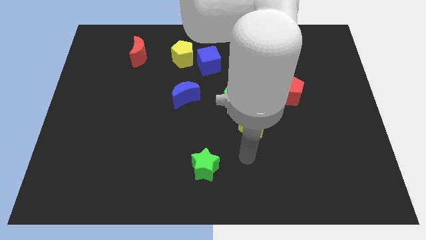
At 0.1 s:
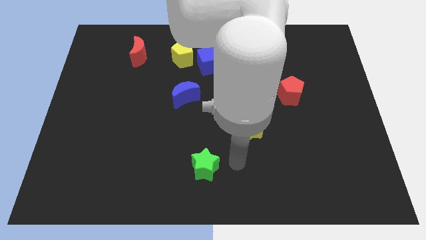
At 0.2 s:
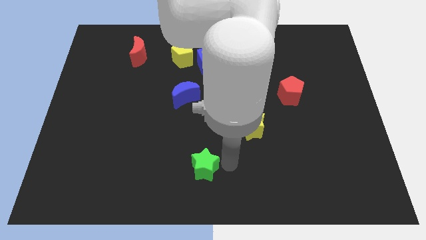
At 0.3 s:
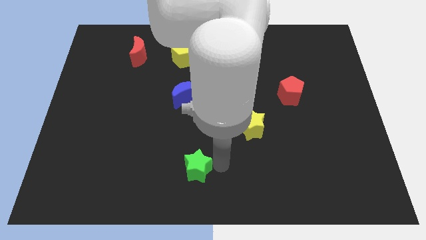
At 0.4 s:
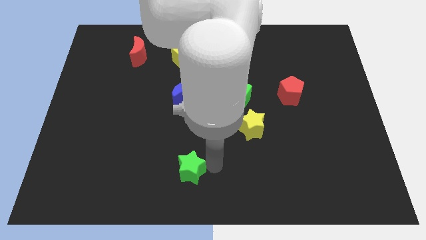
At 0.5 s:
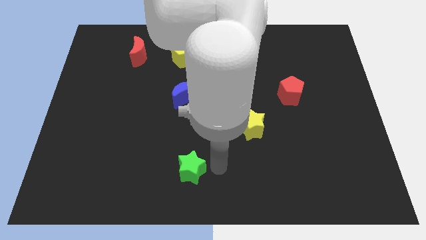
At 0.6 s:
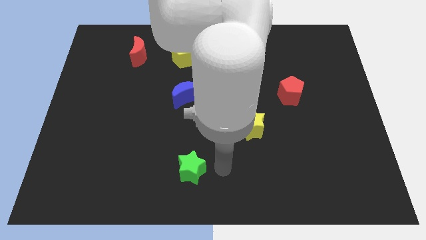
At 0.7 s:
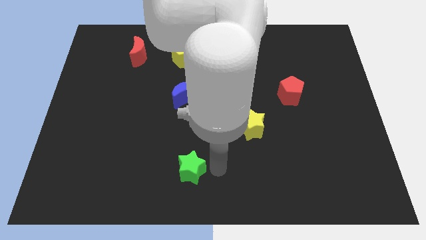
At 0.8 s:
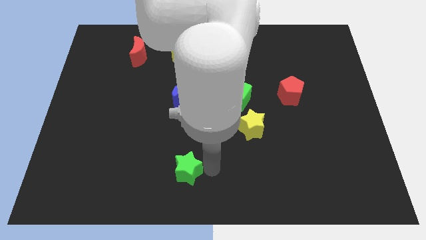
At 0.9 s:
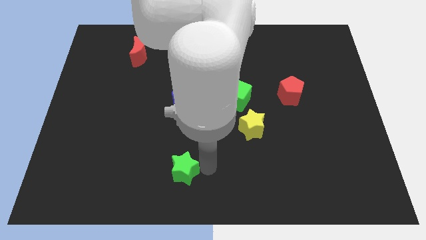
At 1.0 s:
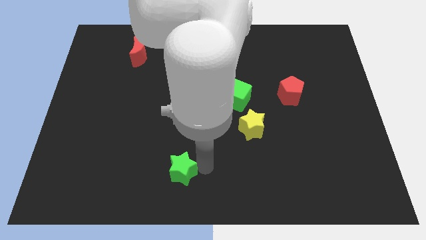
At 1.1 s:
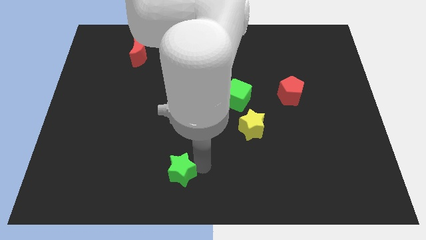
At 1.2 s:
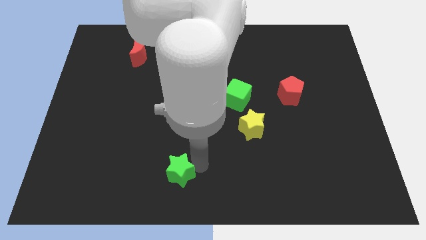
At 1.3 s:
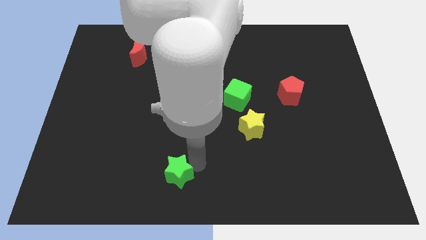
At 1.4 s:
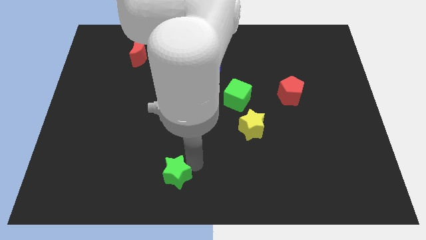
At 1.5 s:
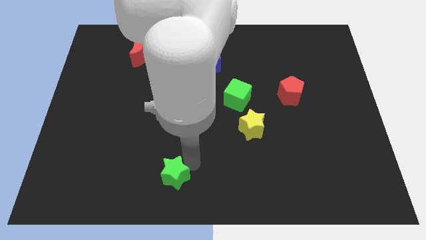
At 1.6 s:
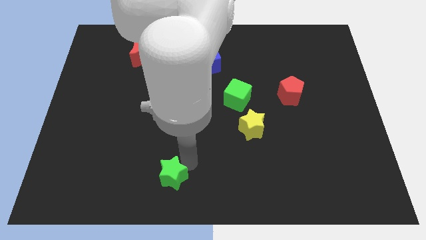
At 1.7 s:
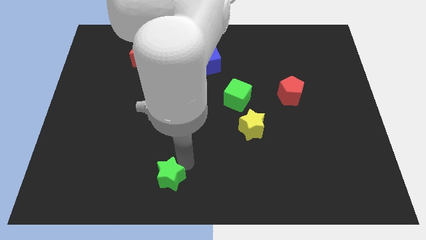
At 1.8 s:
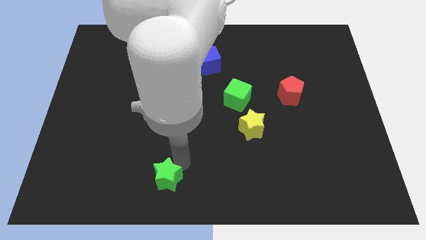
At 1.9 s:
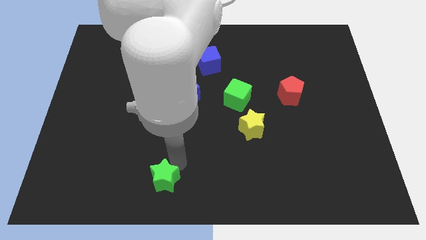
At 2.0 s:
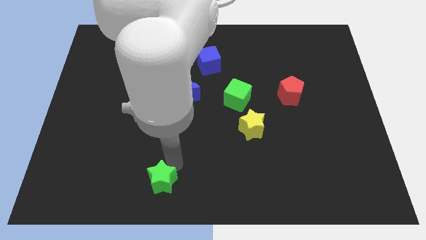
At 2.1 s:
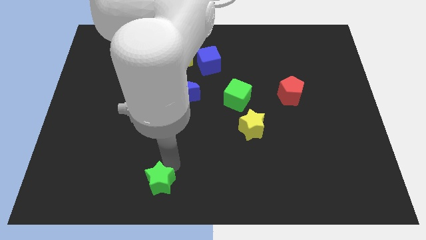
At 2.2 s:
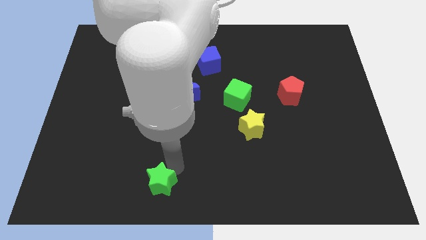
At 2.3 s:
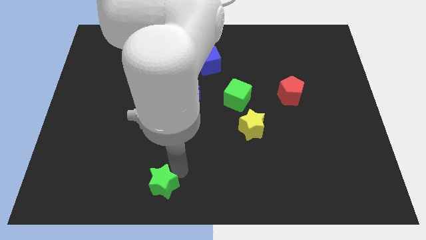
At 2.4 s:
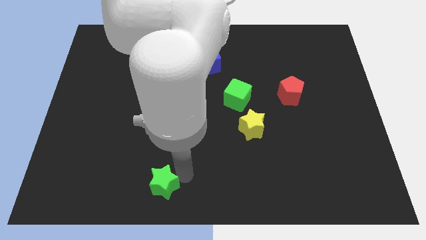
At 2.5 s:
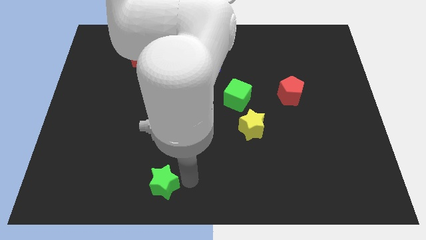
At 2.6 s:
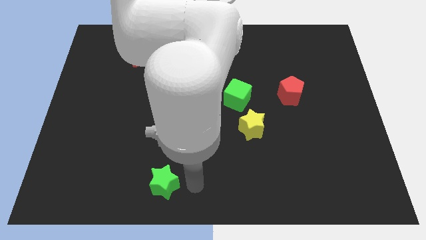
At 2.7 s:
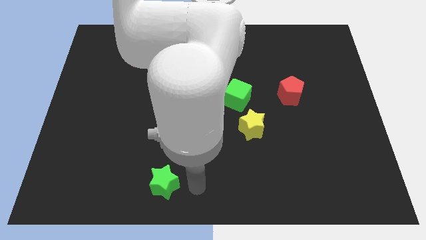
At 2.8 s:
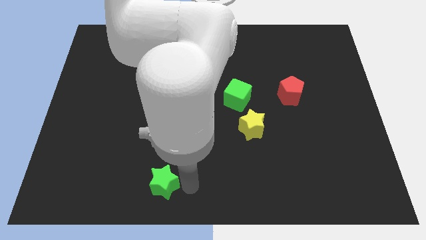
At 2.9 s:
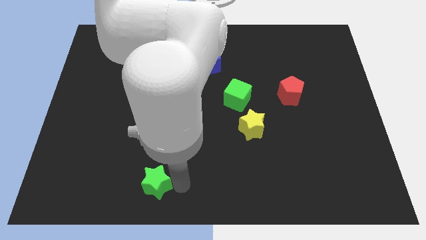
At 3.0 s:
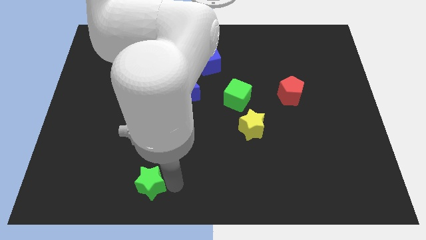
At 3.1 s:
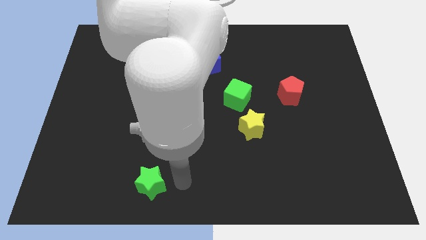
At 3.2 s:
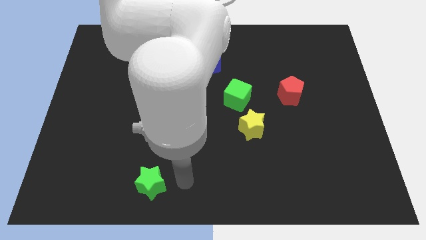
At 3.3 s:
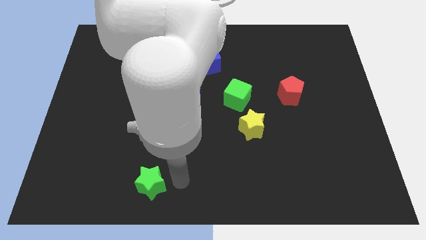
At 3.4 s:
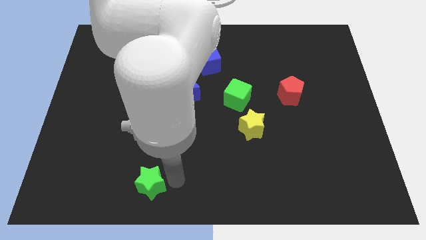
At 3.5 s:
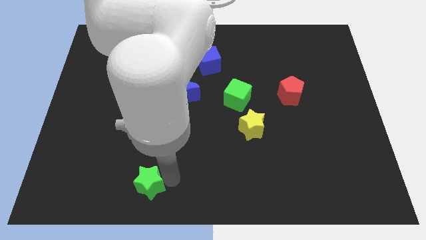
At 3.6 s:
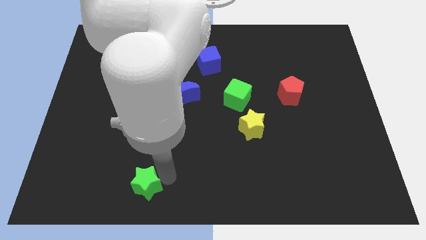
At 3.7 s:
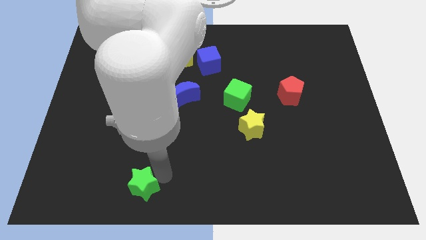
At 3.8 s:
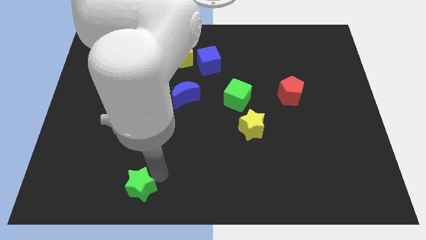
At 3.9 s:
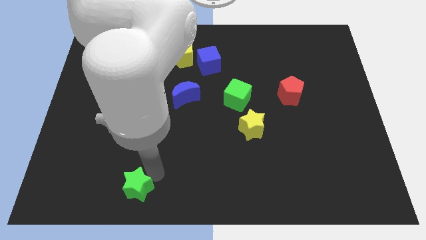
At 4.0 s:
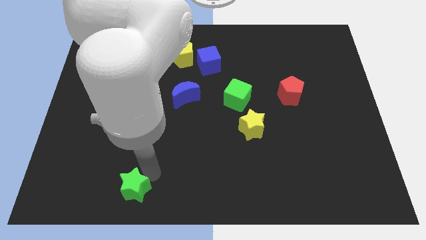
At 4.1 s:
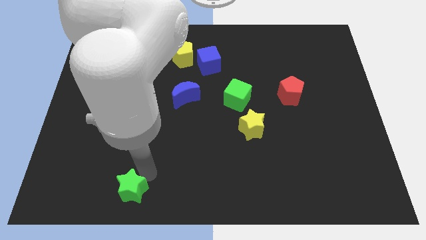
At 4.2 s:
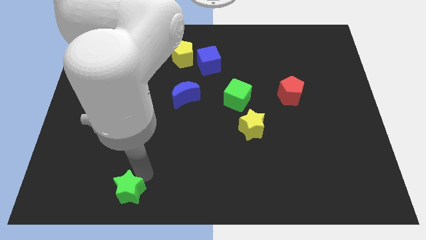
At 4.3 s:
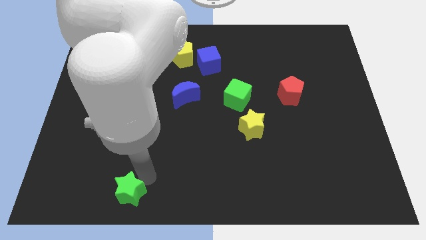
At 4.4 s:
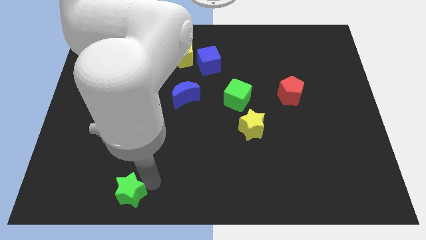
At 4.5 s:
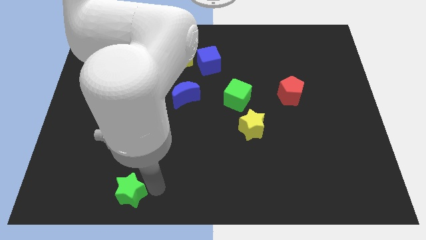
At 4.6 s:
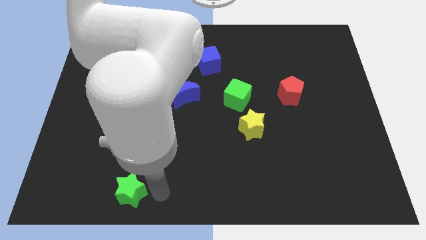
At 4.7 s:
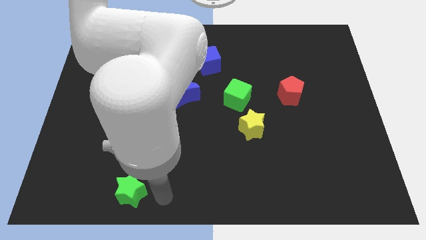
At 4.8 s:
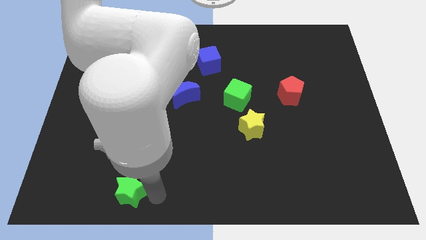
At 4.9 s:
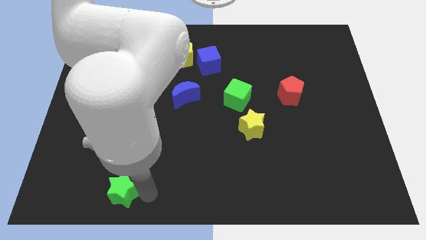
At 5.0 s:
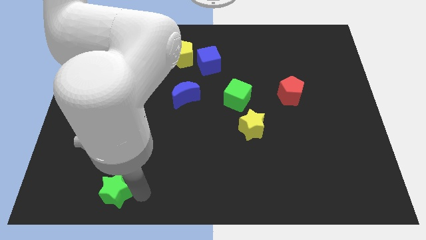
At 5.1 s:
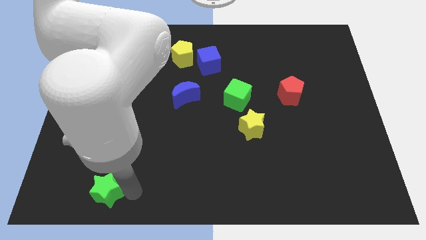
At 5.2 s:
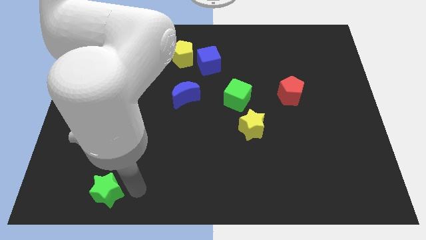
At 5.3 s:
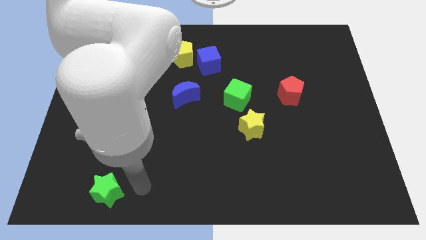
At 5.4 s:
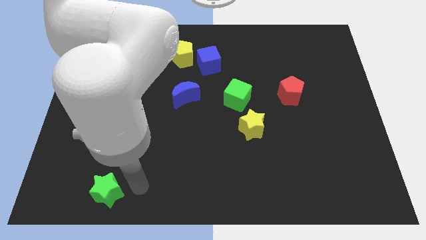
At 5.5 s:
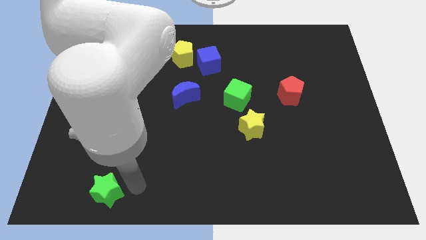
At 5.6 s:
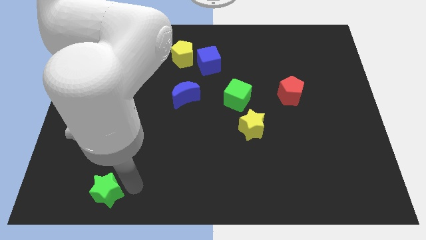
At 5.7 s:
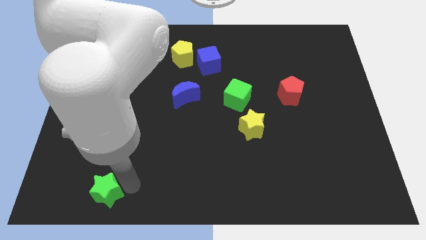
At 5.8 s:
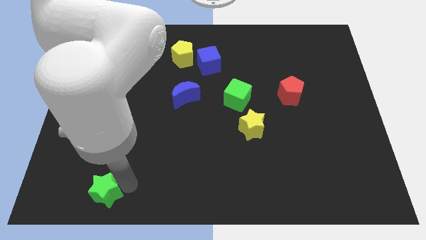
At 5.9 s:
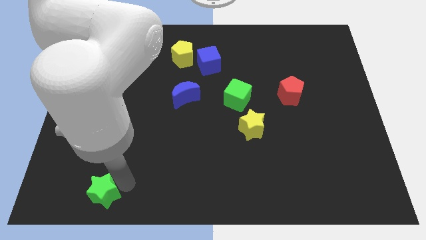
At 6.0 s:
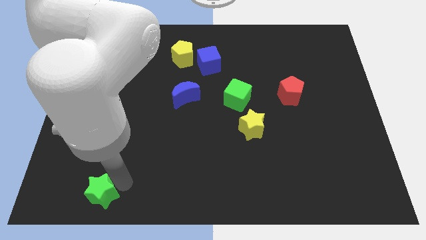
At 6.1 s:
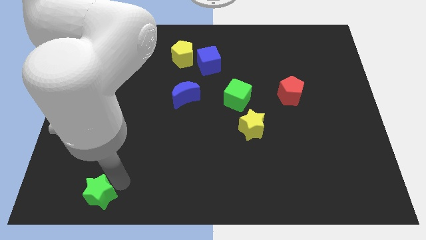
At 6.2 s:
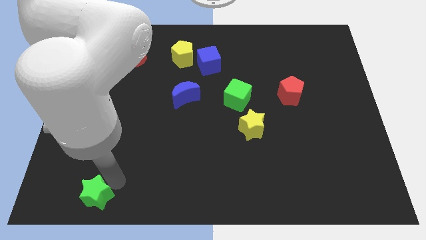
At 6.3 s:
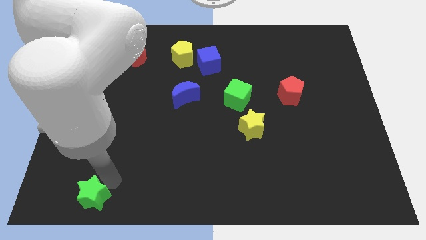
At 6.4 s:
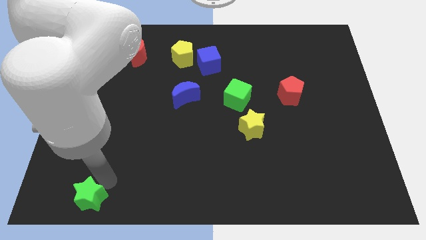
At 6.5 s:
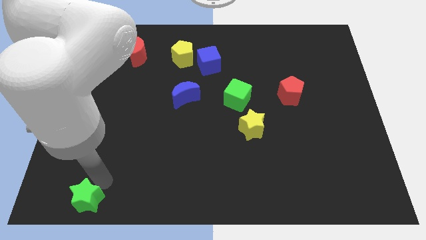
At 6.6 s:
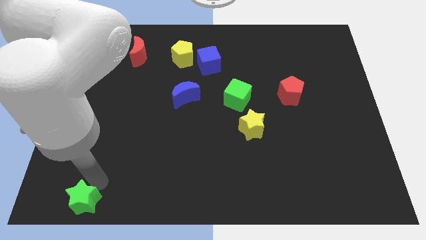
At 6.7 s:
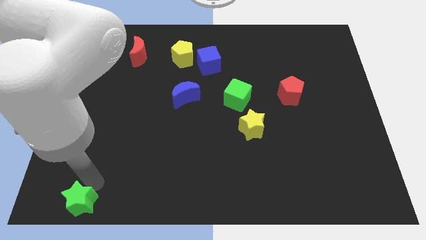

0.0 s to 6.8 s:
push the green star to the lower left corner
